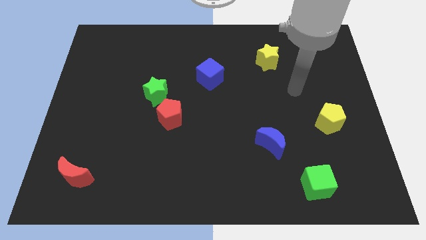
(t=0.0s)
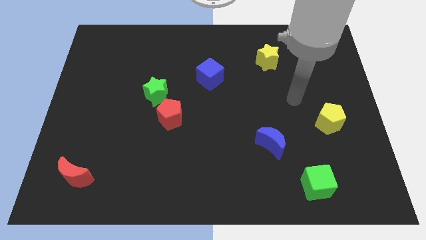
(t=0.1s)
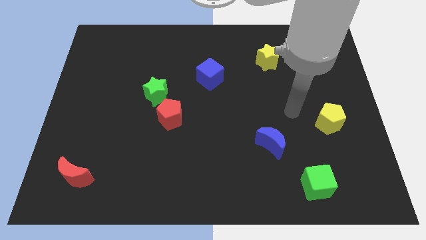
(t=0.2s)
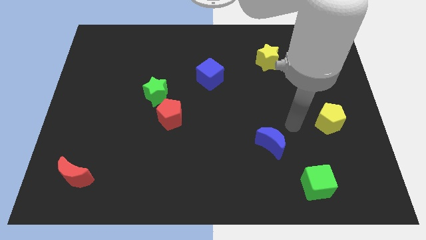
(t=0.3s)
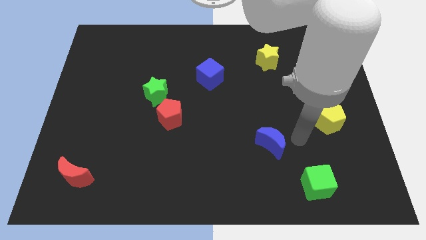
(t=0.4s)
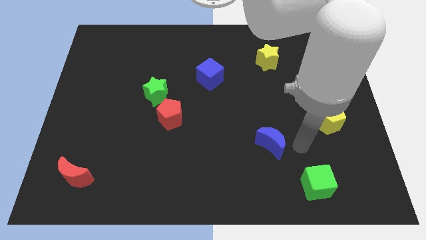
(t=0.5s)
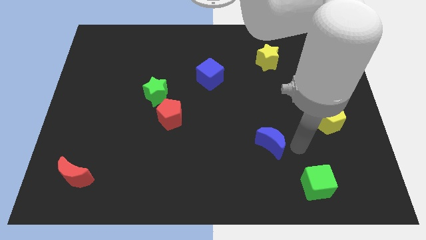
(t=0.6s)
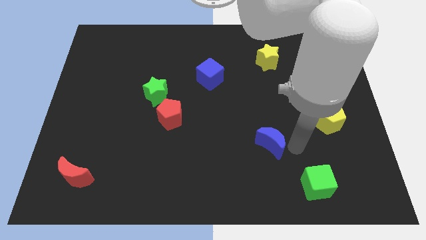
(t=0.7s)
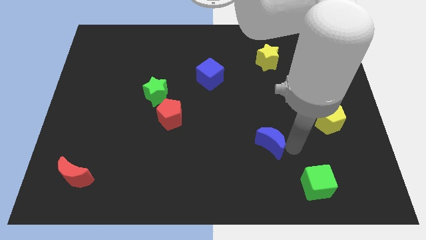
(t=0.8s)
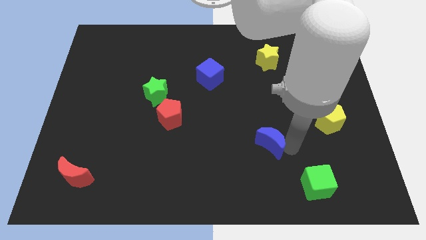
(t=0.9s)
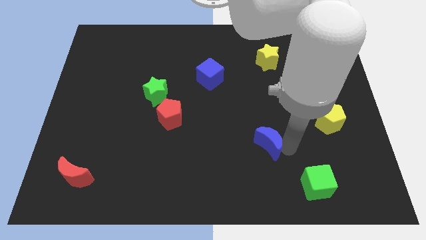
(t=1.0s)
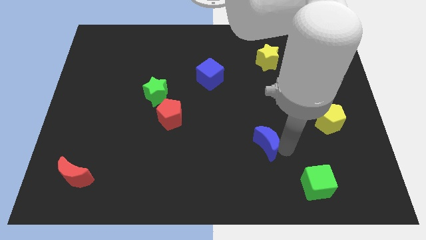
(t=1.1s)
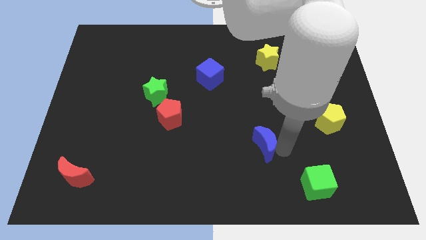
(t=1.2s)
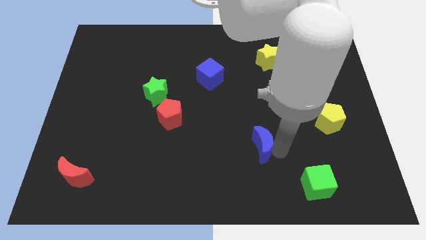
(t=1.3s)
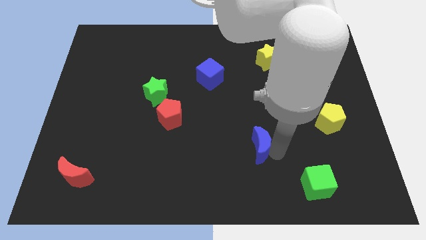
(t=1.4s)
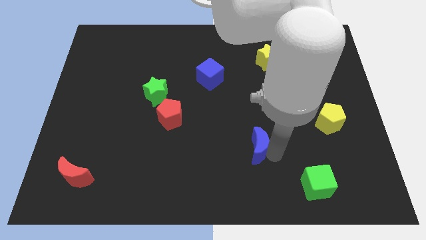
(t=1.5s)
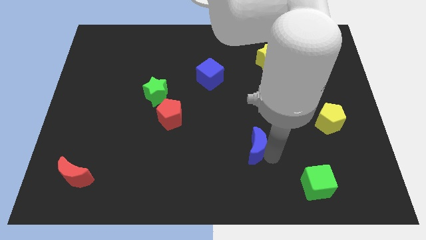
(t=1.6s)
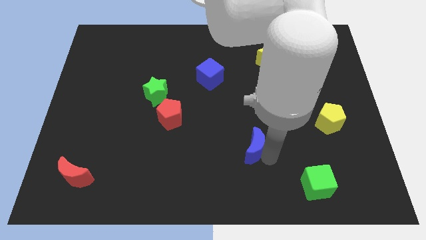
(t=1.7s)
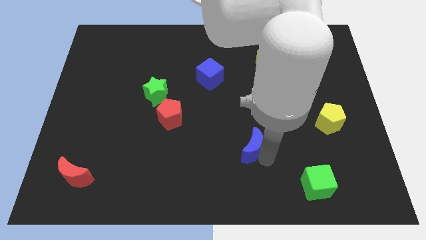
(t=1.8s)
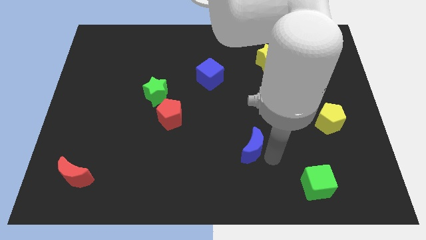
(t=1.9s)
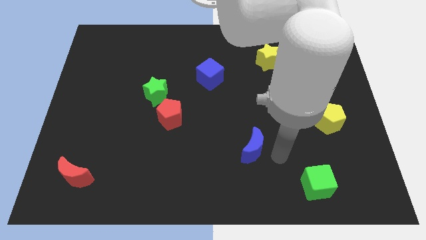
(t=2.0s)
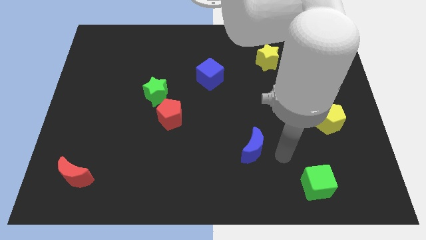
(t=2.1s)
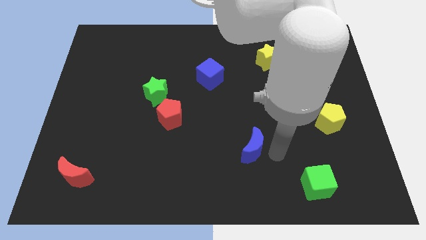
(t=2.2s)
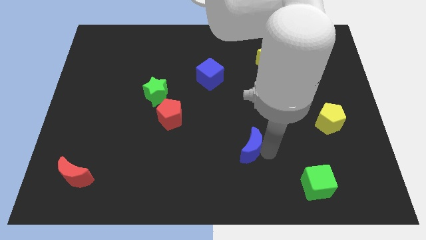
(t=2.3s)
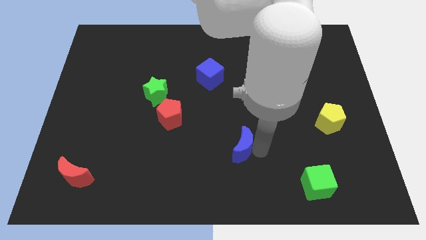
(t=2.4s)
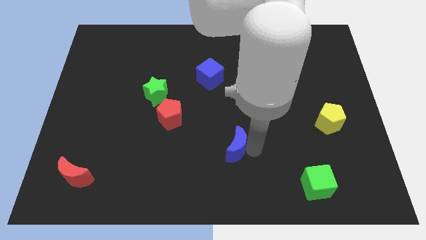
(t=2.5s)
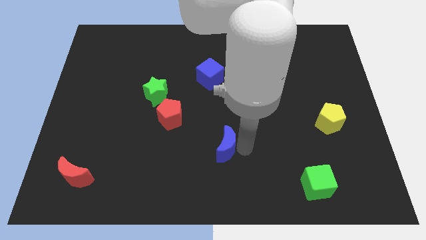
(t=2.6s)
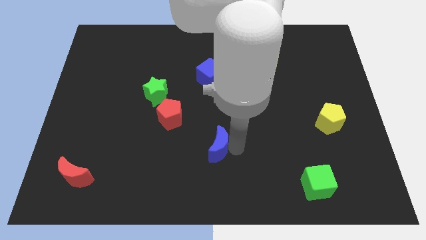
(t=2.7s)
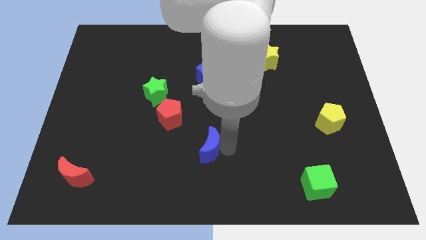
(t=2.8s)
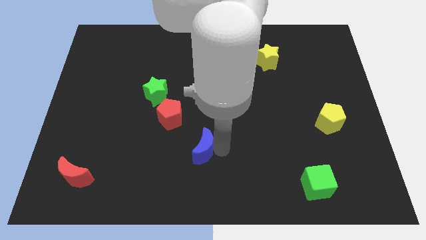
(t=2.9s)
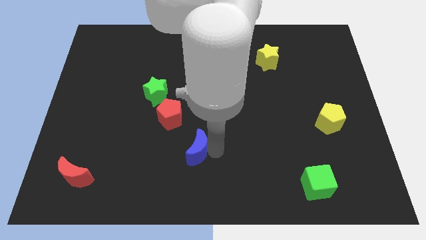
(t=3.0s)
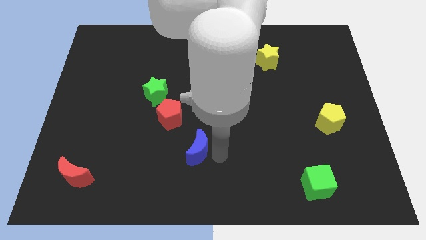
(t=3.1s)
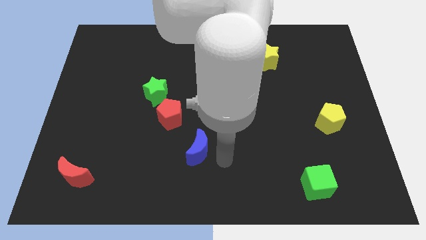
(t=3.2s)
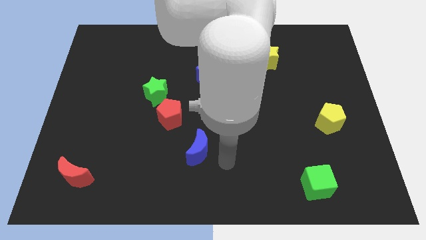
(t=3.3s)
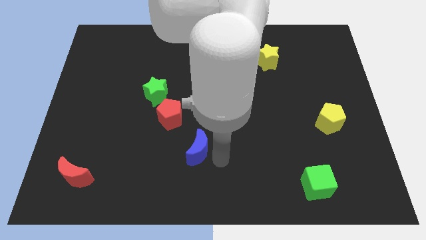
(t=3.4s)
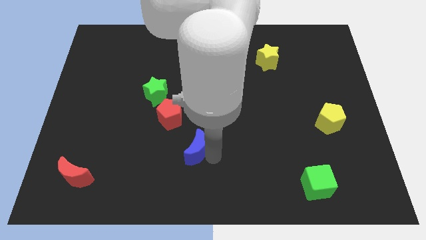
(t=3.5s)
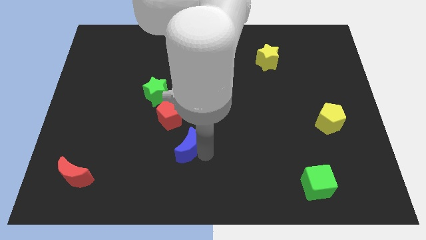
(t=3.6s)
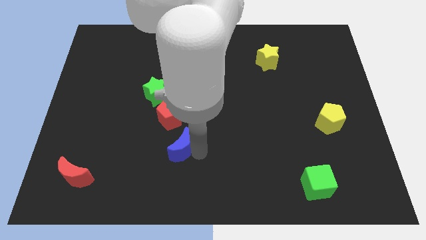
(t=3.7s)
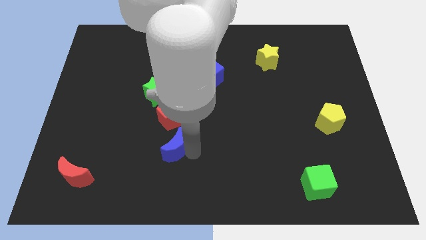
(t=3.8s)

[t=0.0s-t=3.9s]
slide the blue moon to the left

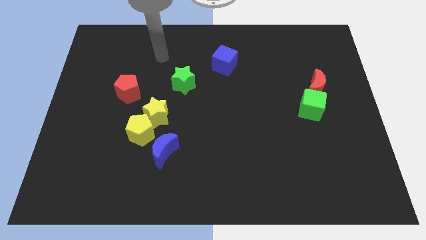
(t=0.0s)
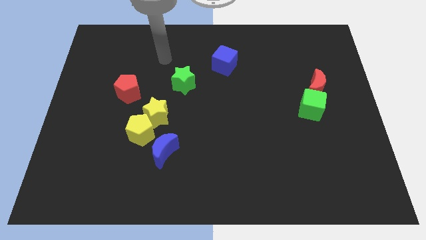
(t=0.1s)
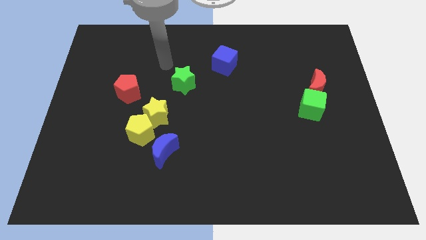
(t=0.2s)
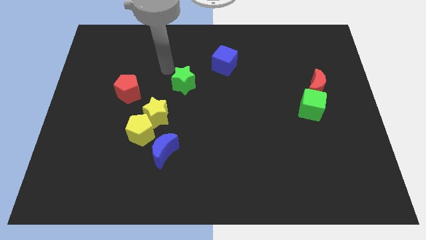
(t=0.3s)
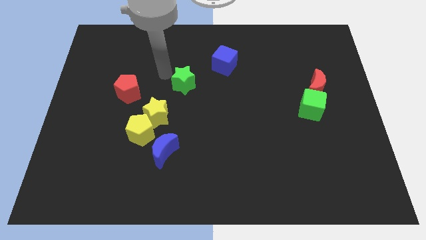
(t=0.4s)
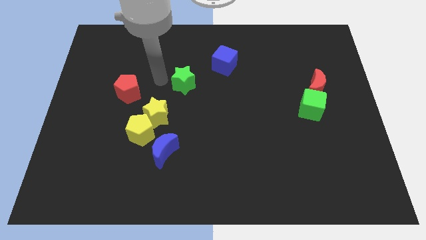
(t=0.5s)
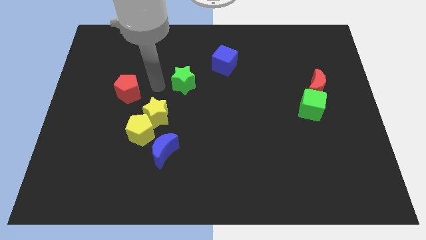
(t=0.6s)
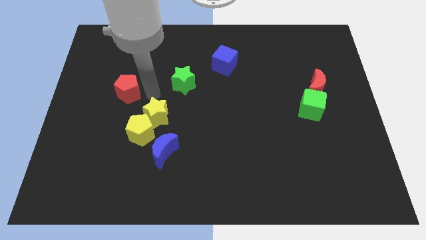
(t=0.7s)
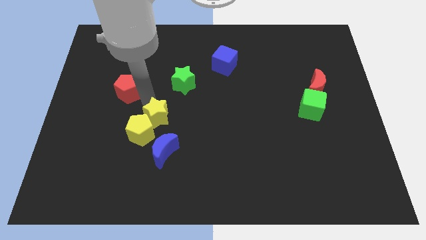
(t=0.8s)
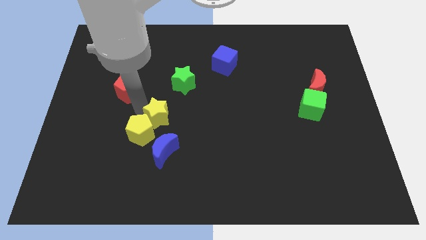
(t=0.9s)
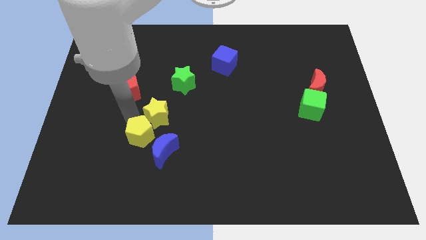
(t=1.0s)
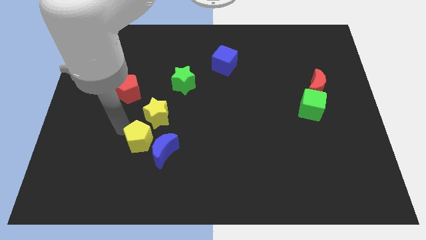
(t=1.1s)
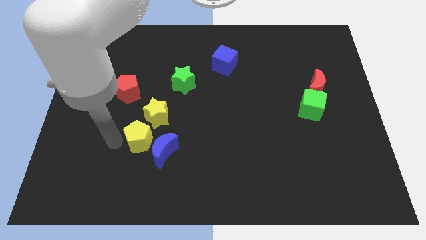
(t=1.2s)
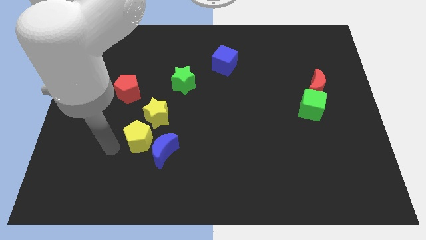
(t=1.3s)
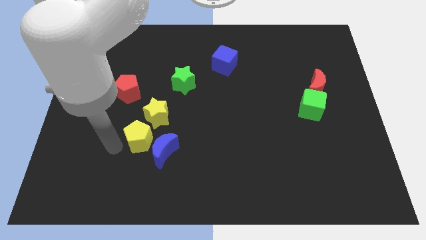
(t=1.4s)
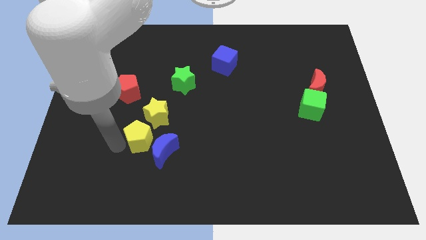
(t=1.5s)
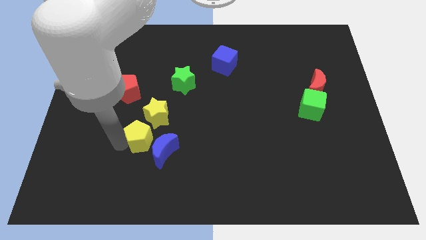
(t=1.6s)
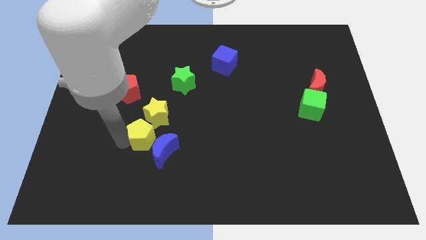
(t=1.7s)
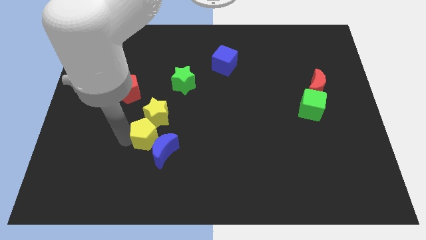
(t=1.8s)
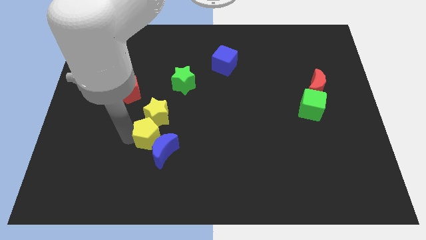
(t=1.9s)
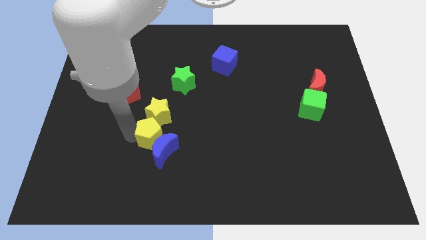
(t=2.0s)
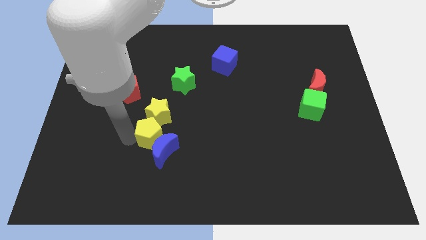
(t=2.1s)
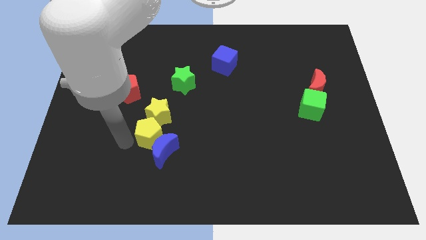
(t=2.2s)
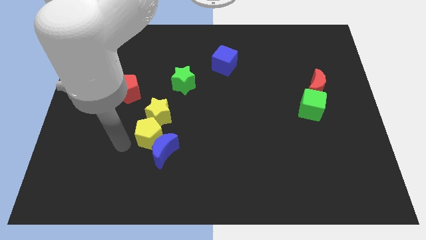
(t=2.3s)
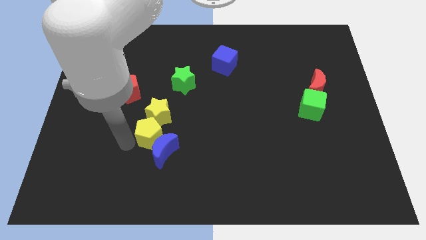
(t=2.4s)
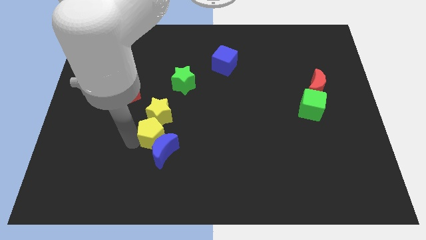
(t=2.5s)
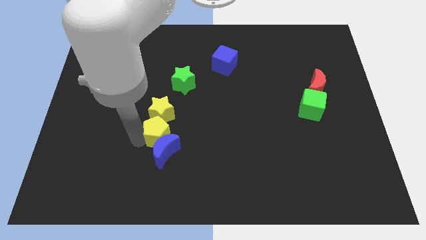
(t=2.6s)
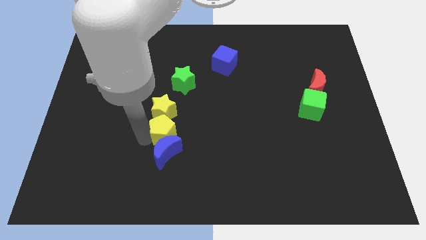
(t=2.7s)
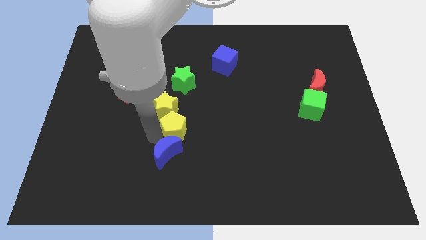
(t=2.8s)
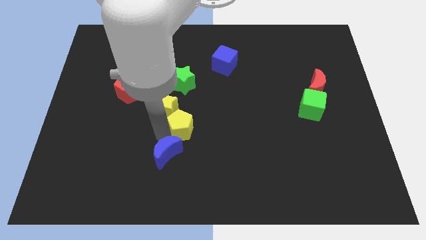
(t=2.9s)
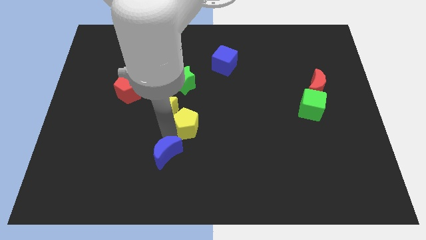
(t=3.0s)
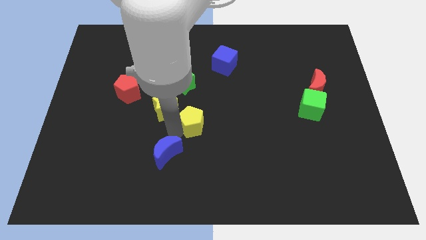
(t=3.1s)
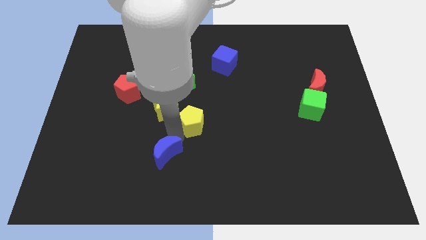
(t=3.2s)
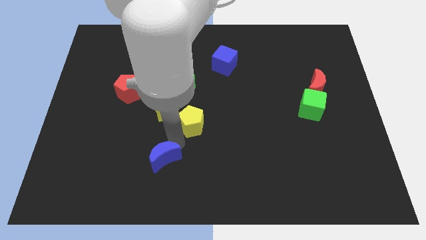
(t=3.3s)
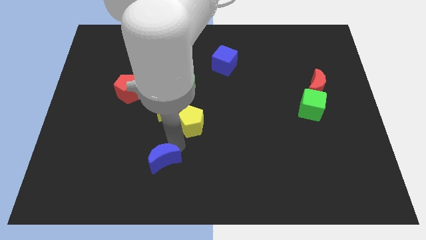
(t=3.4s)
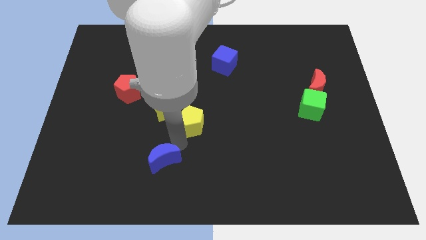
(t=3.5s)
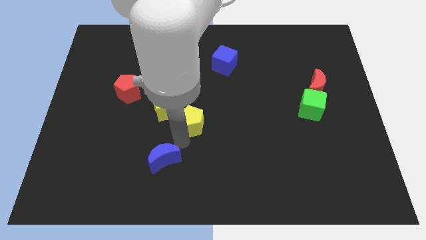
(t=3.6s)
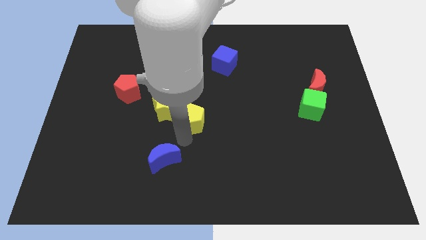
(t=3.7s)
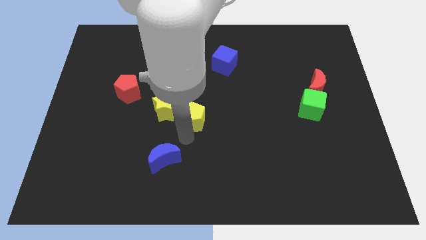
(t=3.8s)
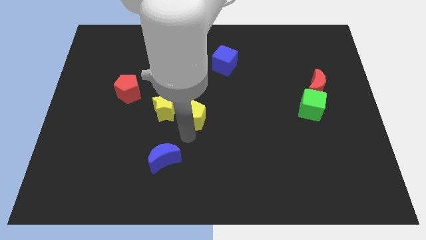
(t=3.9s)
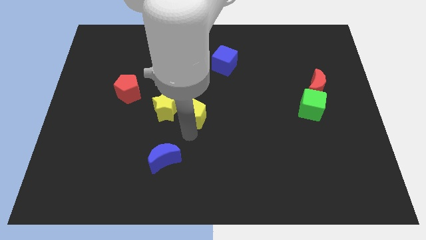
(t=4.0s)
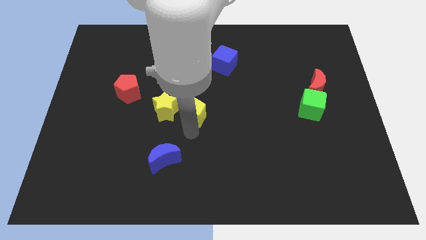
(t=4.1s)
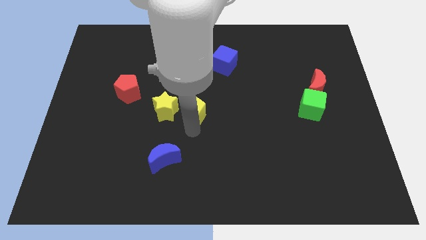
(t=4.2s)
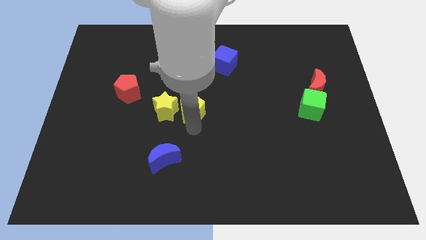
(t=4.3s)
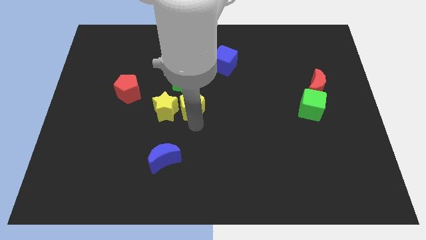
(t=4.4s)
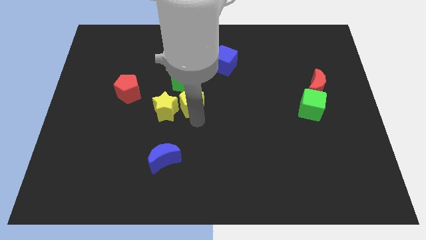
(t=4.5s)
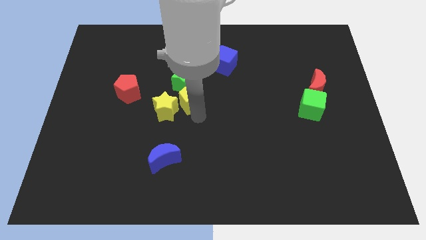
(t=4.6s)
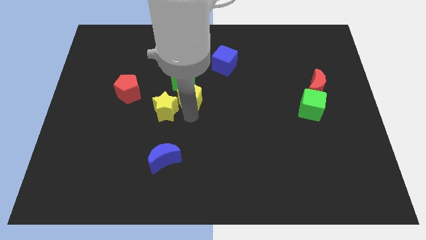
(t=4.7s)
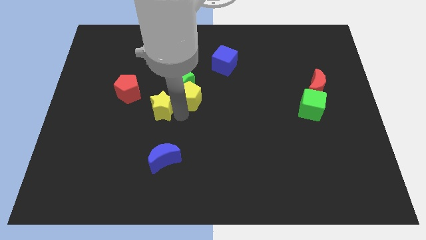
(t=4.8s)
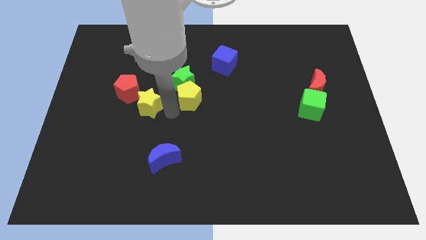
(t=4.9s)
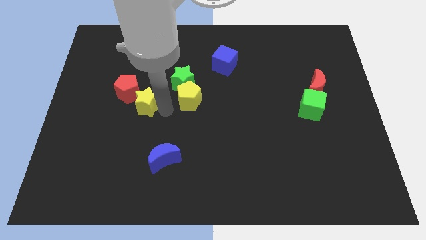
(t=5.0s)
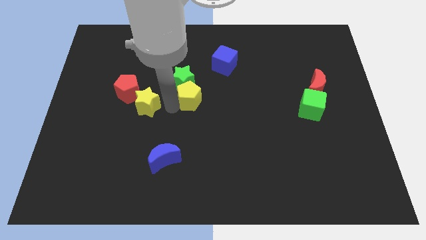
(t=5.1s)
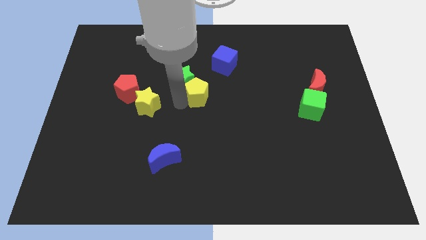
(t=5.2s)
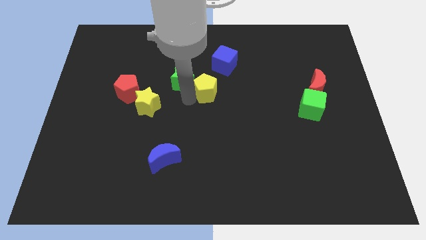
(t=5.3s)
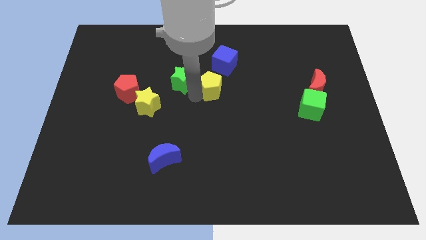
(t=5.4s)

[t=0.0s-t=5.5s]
move the yellow pentagon diagonally upwards and to the right
